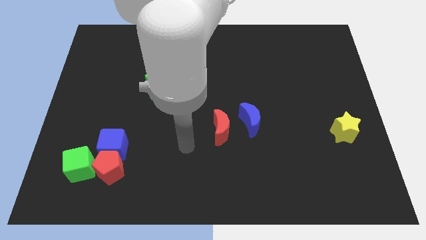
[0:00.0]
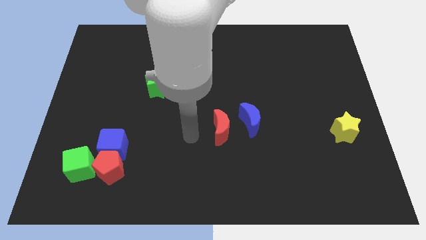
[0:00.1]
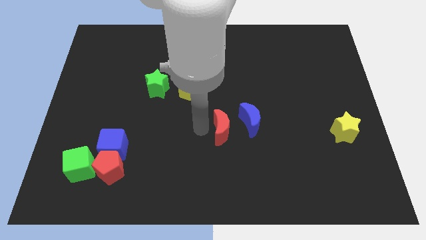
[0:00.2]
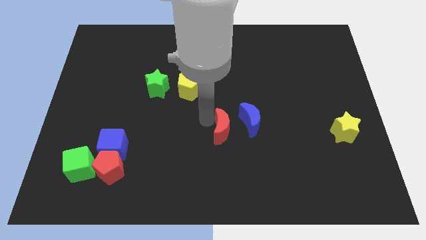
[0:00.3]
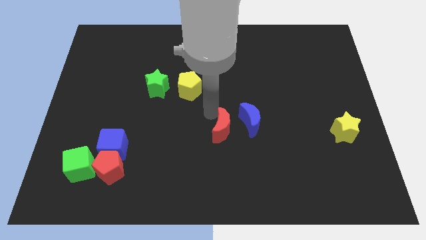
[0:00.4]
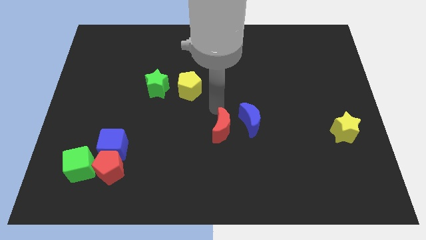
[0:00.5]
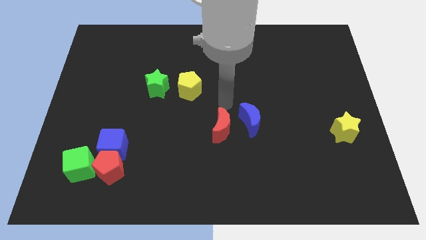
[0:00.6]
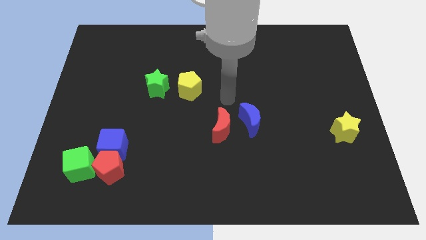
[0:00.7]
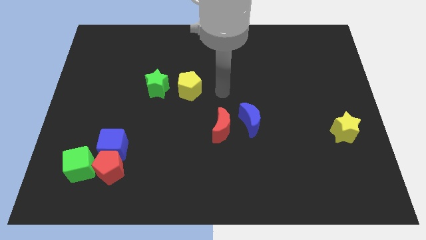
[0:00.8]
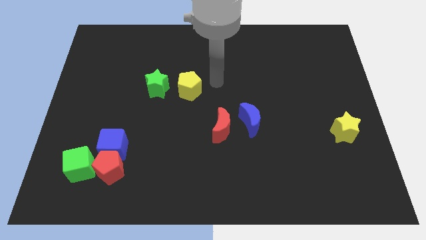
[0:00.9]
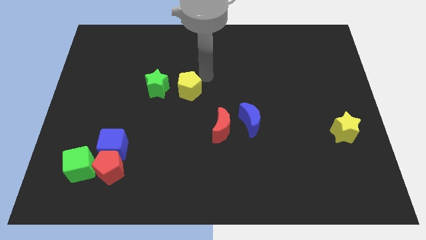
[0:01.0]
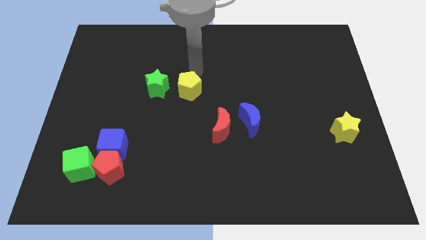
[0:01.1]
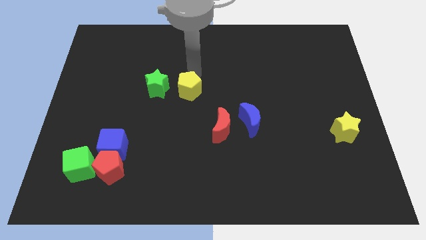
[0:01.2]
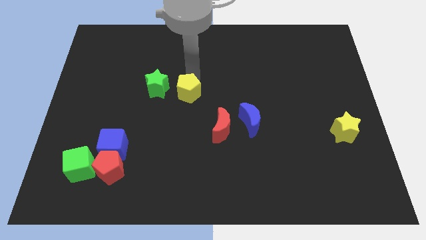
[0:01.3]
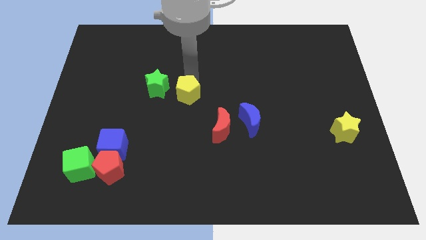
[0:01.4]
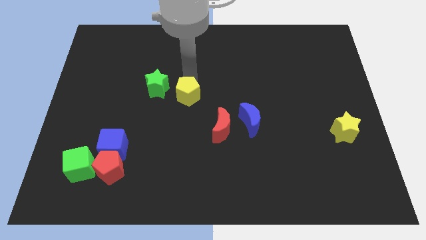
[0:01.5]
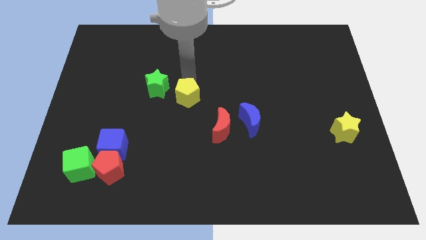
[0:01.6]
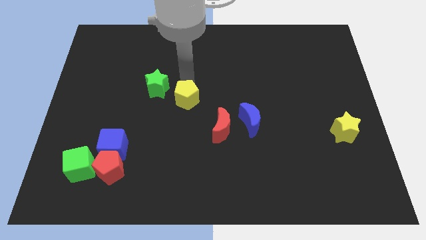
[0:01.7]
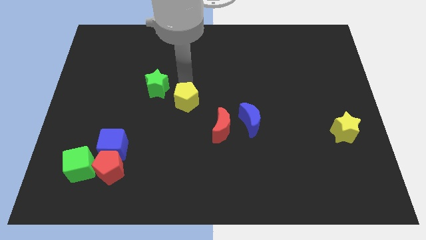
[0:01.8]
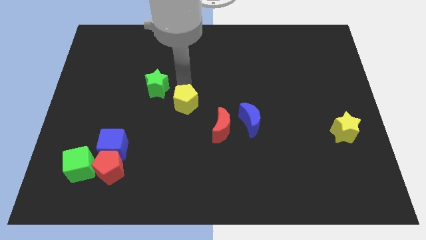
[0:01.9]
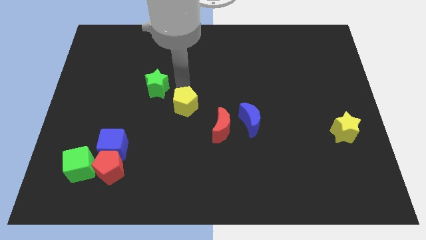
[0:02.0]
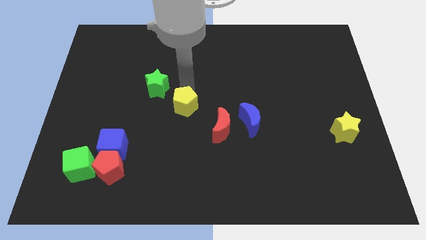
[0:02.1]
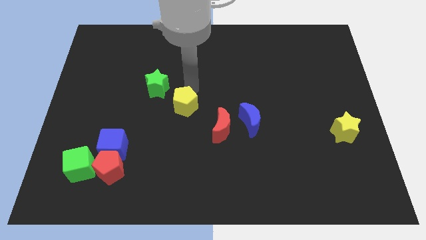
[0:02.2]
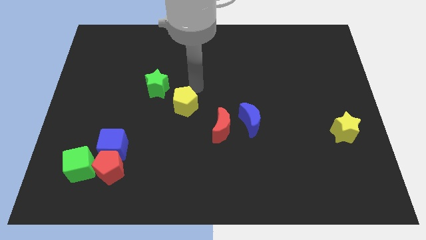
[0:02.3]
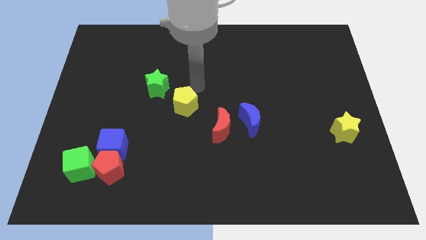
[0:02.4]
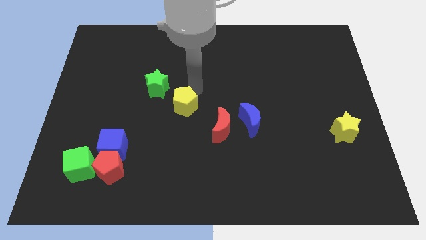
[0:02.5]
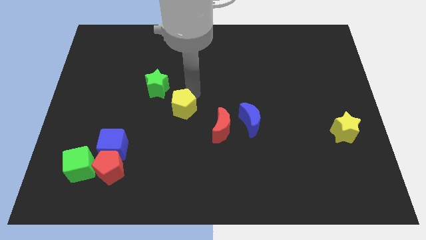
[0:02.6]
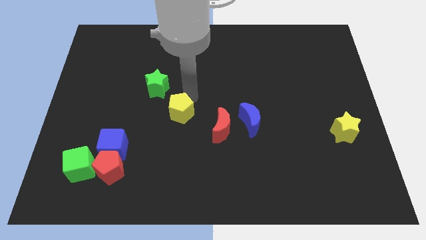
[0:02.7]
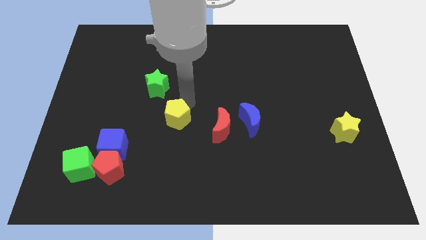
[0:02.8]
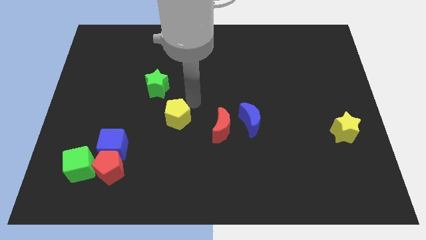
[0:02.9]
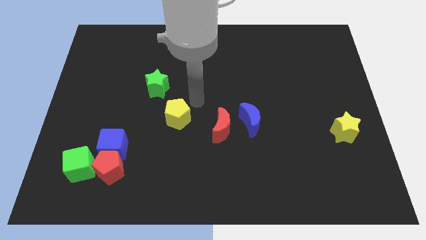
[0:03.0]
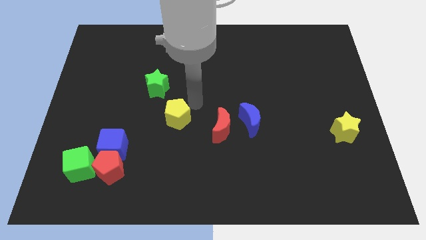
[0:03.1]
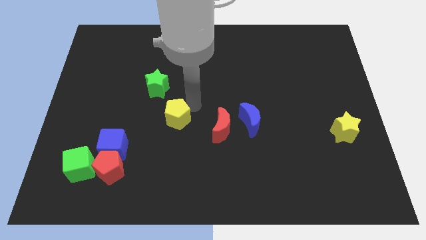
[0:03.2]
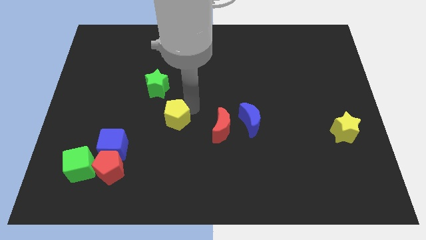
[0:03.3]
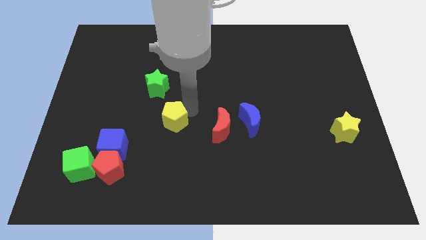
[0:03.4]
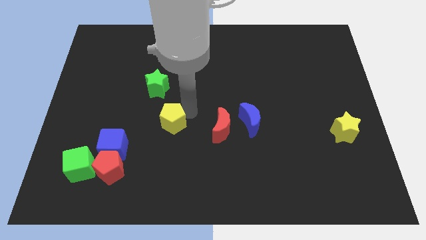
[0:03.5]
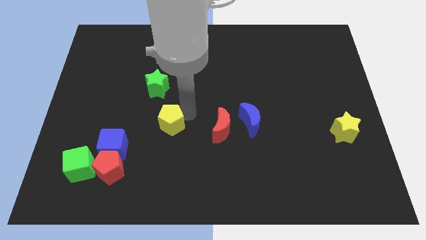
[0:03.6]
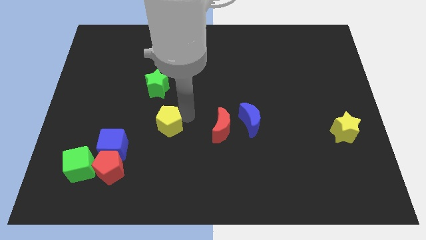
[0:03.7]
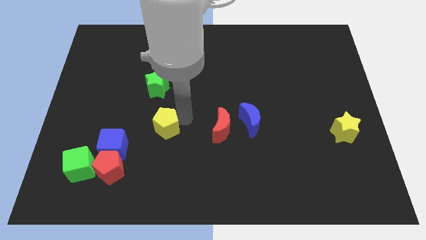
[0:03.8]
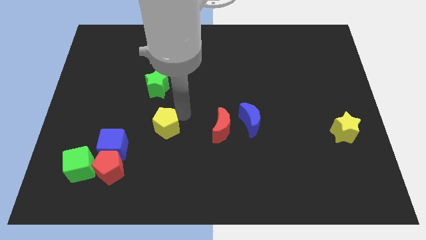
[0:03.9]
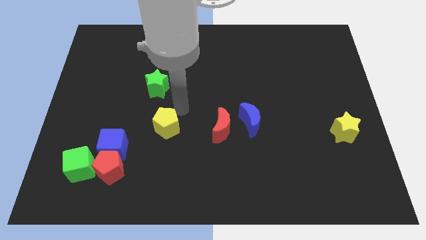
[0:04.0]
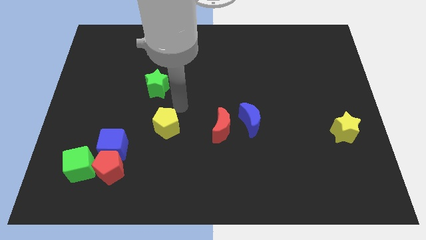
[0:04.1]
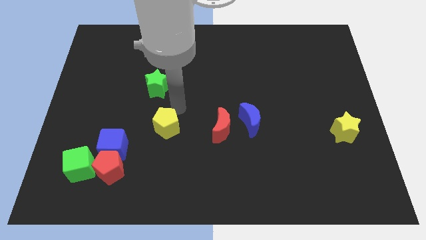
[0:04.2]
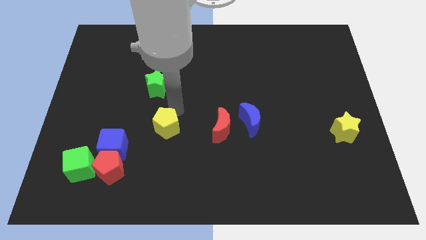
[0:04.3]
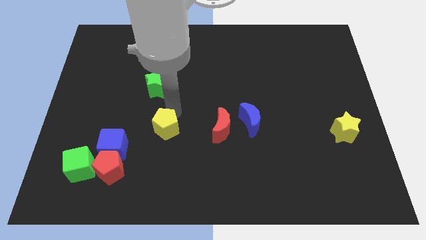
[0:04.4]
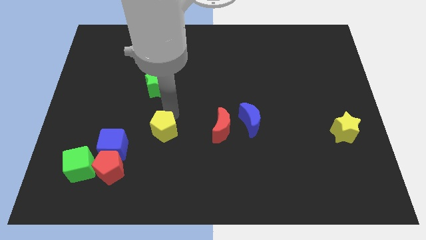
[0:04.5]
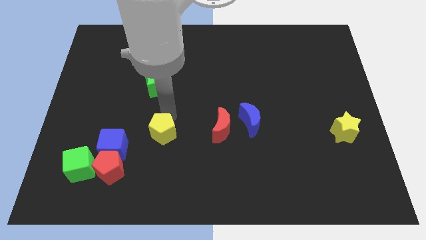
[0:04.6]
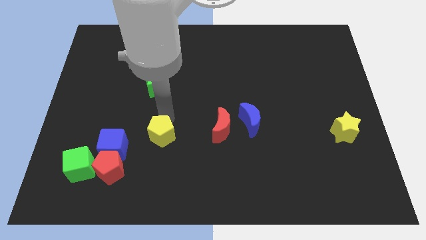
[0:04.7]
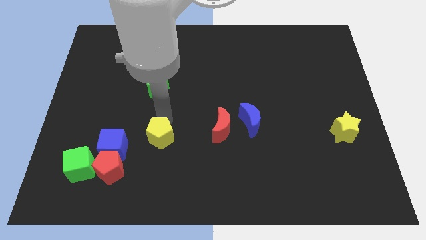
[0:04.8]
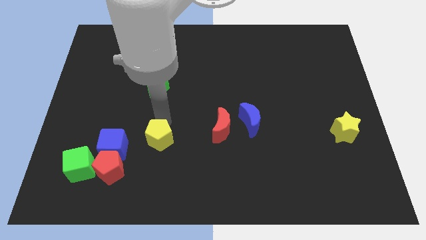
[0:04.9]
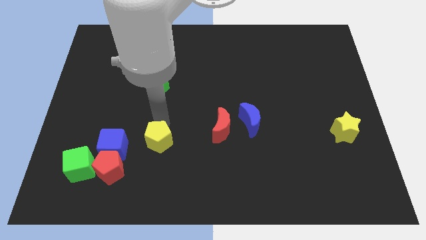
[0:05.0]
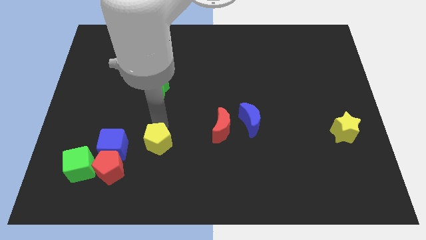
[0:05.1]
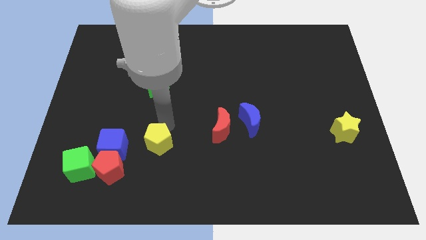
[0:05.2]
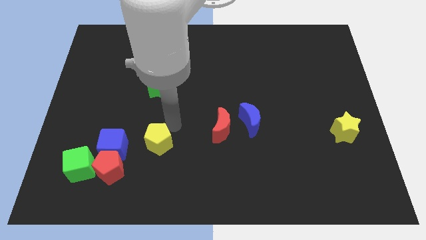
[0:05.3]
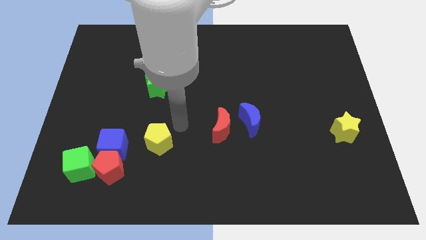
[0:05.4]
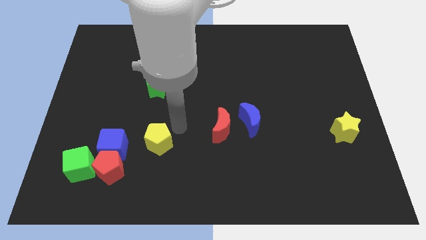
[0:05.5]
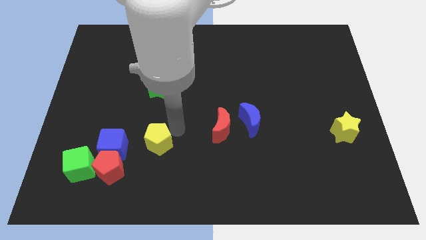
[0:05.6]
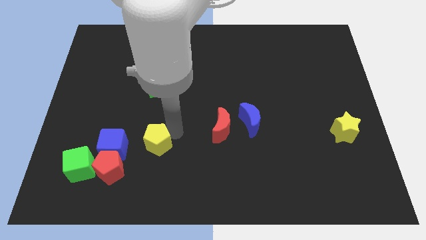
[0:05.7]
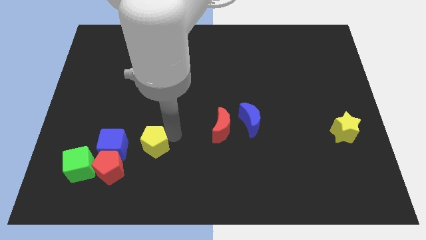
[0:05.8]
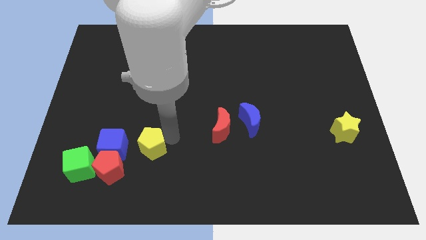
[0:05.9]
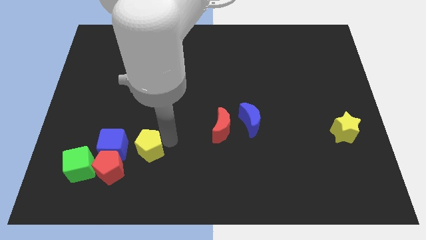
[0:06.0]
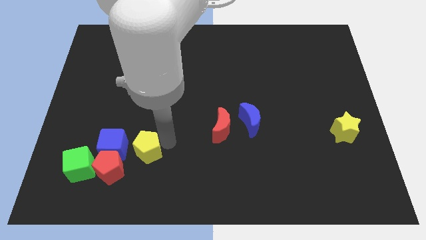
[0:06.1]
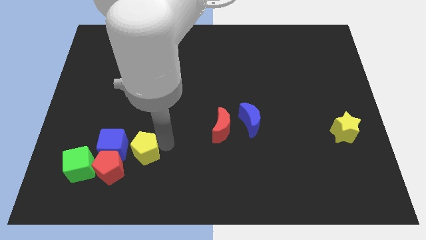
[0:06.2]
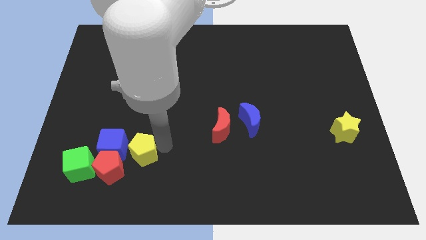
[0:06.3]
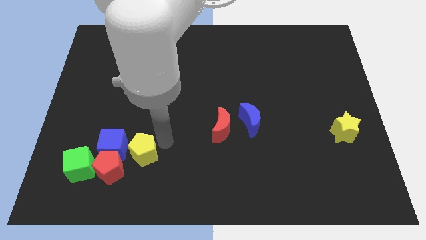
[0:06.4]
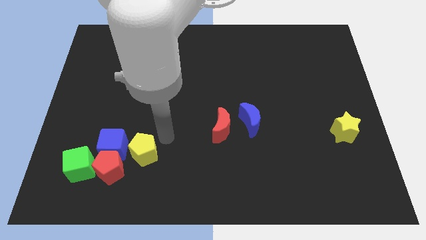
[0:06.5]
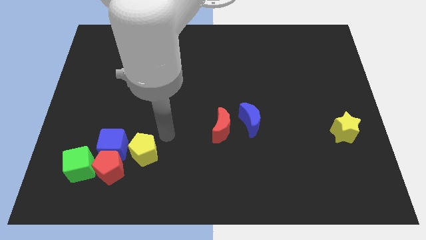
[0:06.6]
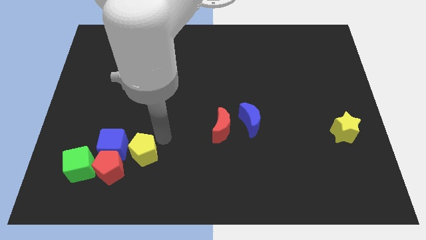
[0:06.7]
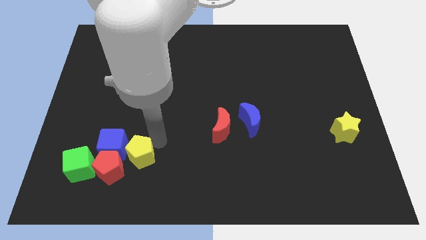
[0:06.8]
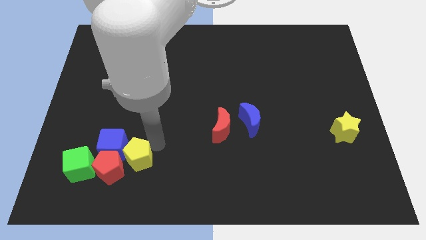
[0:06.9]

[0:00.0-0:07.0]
push the yellow pentagon towards the red pentagon

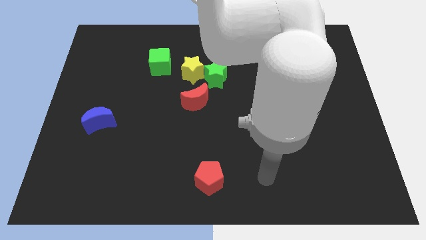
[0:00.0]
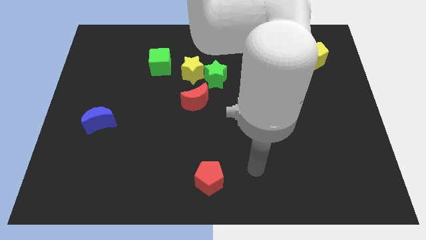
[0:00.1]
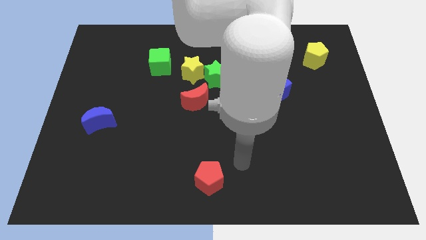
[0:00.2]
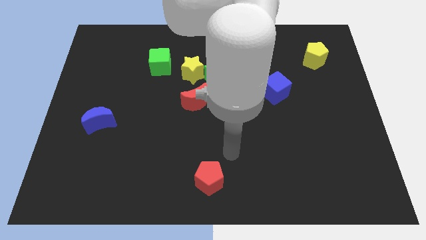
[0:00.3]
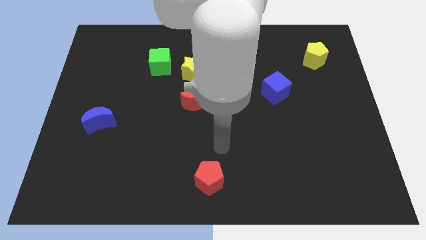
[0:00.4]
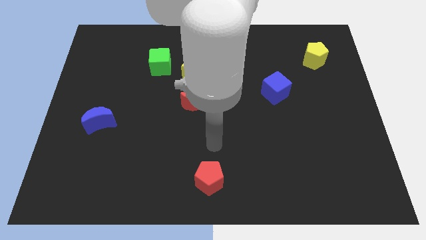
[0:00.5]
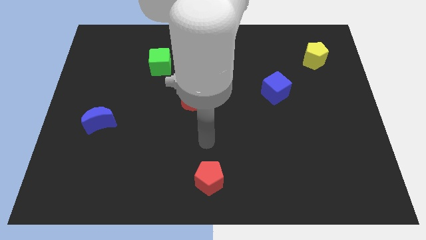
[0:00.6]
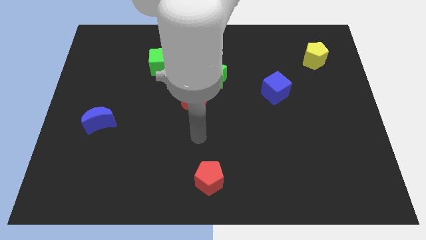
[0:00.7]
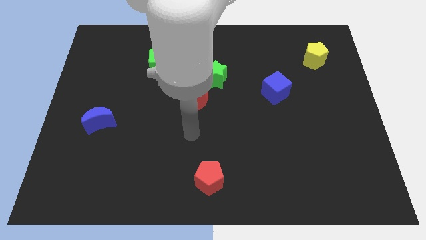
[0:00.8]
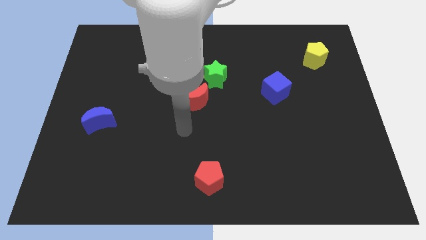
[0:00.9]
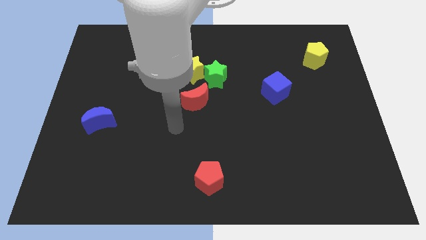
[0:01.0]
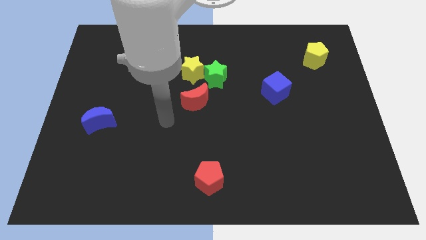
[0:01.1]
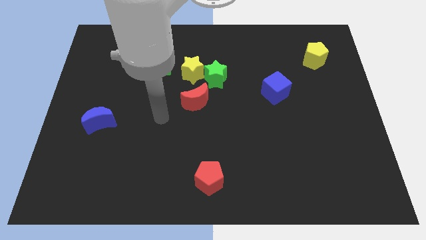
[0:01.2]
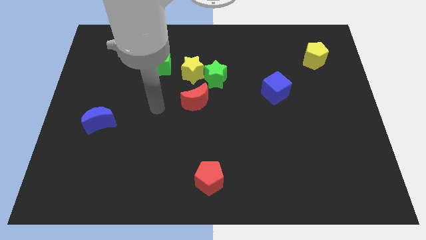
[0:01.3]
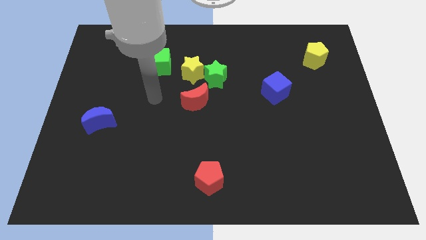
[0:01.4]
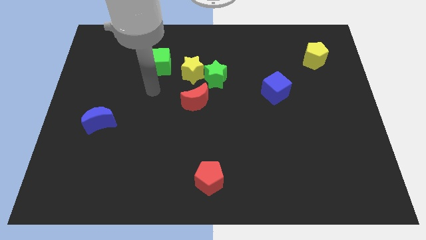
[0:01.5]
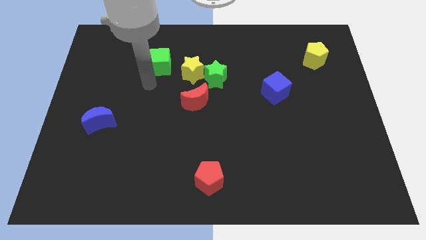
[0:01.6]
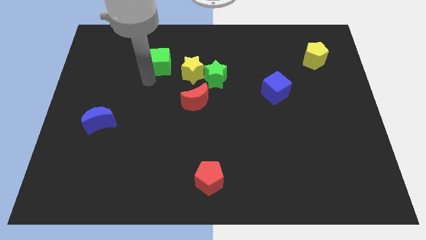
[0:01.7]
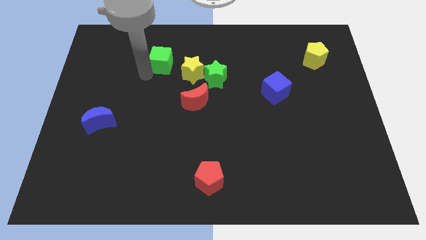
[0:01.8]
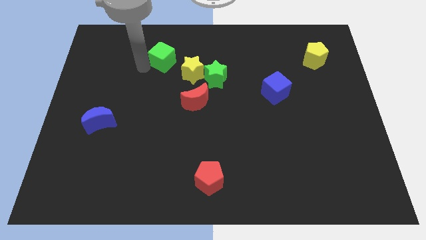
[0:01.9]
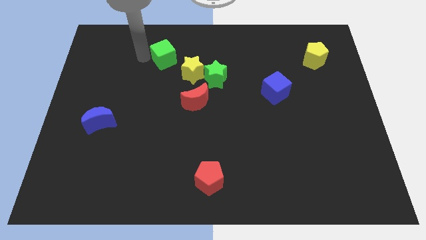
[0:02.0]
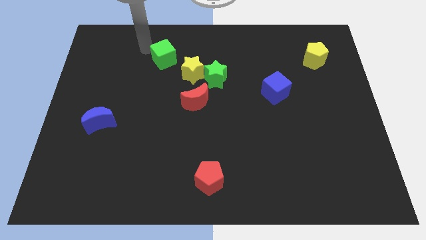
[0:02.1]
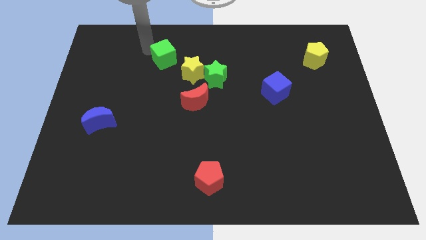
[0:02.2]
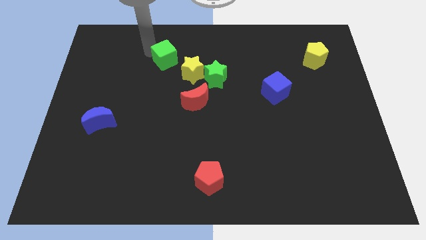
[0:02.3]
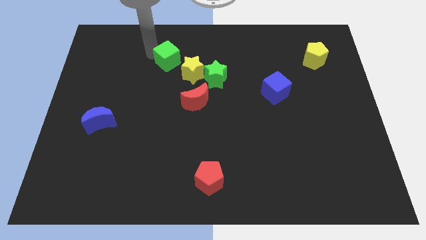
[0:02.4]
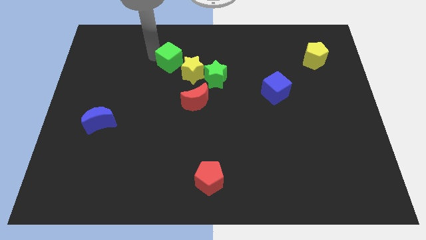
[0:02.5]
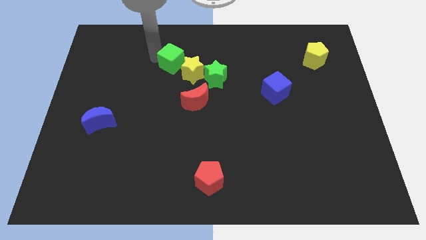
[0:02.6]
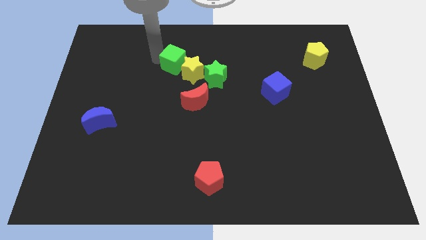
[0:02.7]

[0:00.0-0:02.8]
push the green cube towards the yellow star
